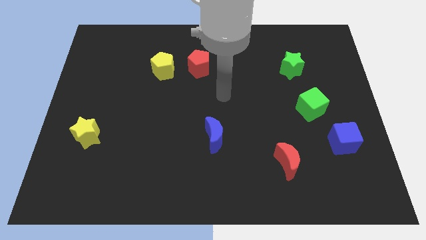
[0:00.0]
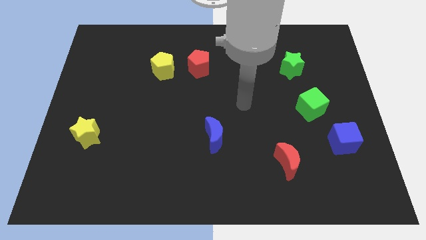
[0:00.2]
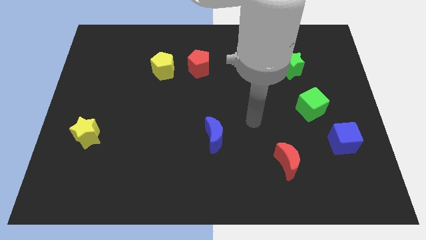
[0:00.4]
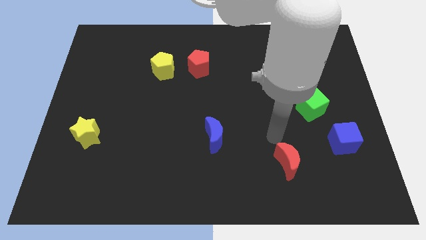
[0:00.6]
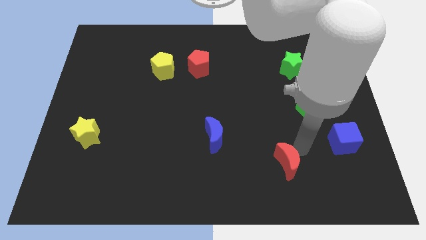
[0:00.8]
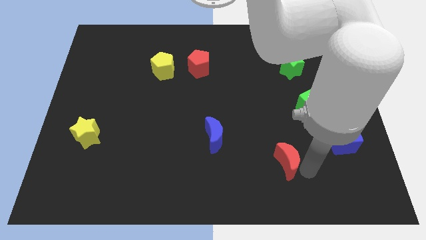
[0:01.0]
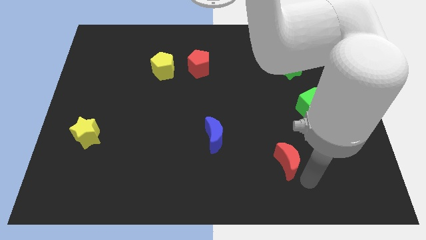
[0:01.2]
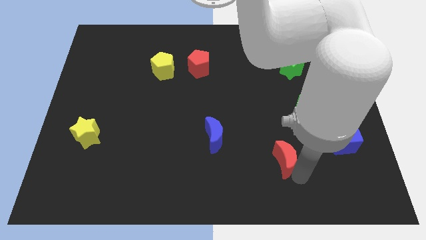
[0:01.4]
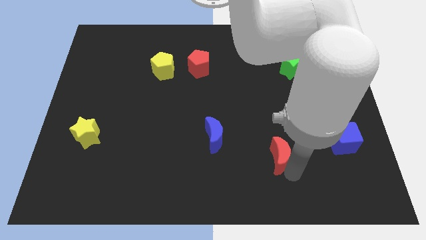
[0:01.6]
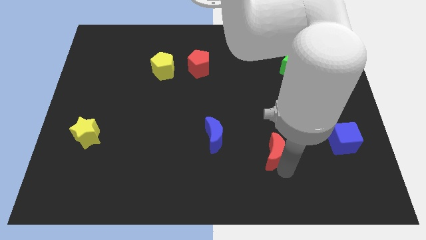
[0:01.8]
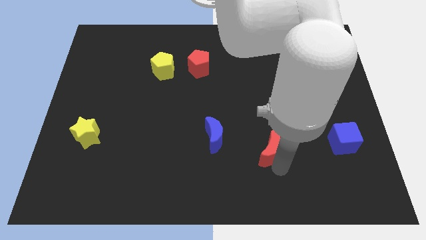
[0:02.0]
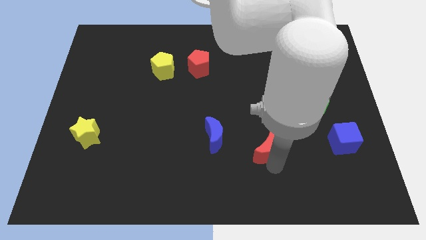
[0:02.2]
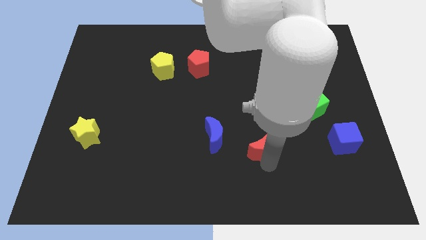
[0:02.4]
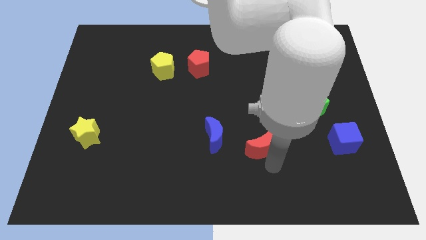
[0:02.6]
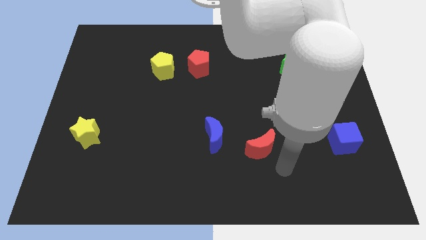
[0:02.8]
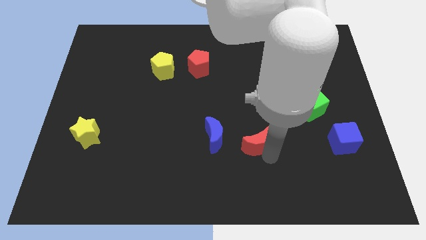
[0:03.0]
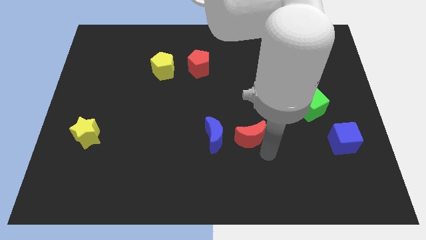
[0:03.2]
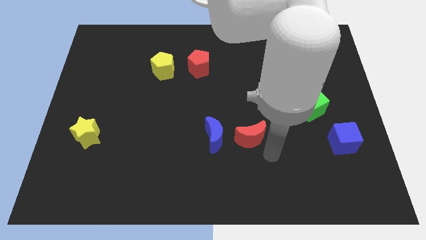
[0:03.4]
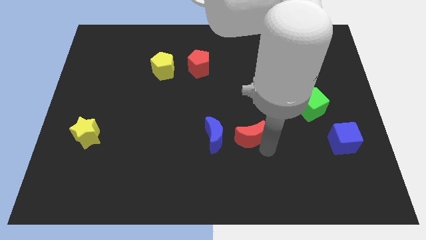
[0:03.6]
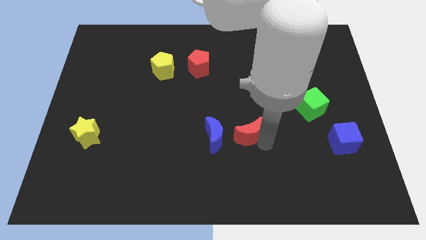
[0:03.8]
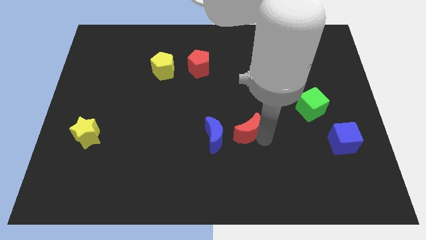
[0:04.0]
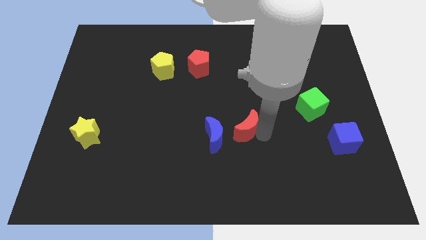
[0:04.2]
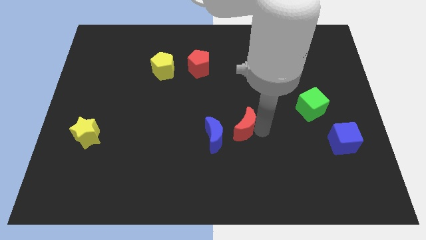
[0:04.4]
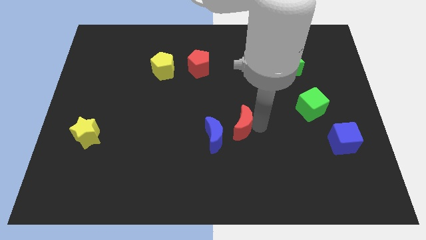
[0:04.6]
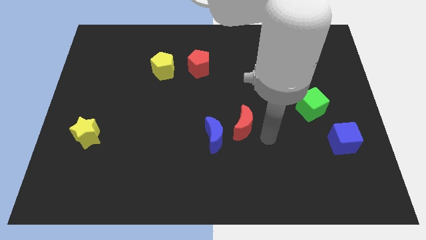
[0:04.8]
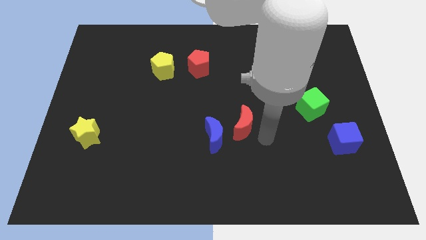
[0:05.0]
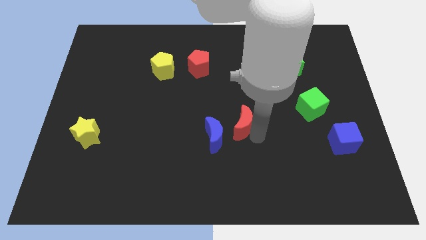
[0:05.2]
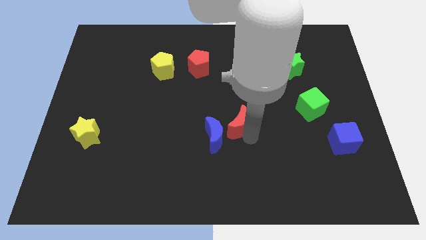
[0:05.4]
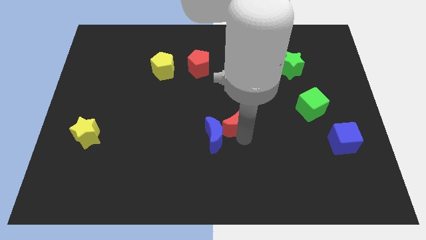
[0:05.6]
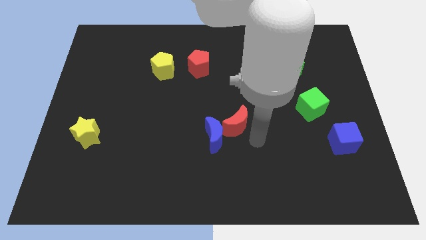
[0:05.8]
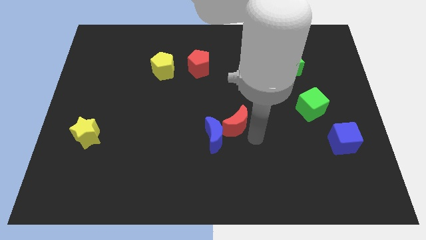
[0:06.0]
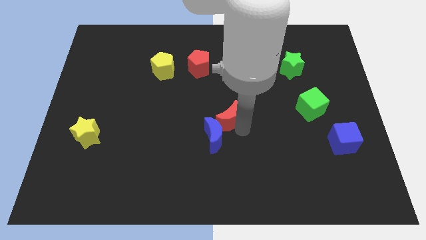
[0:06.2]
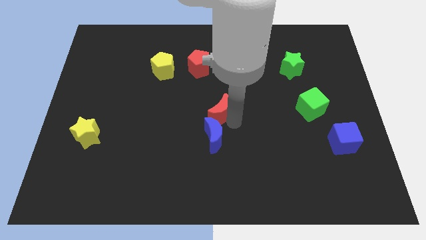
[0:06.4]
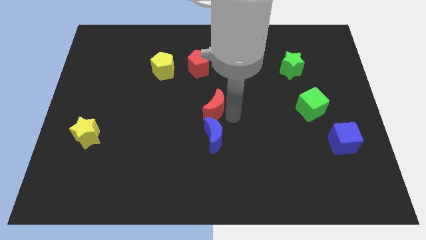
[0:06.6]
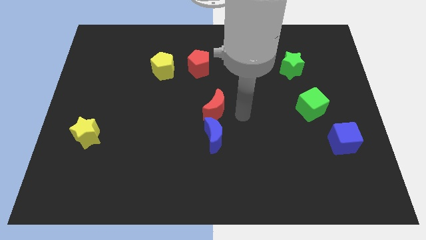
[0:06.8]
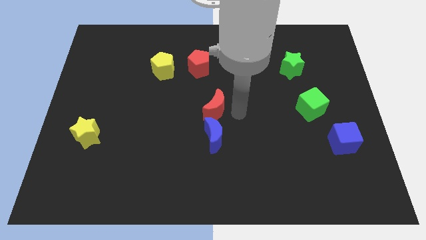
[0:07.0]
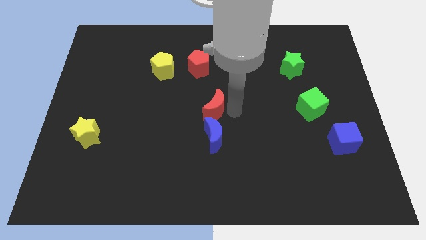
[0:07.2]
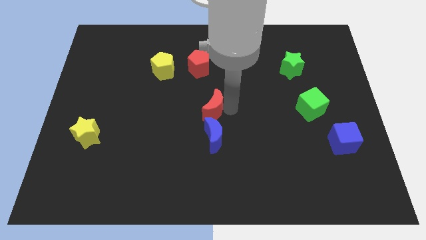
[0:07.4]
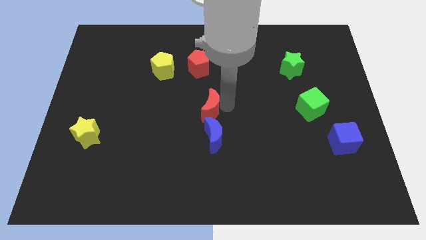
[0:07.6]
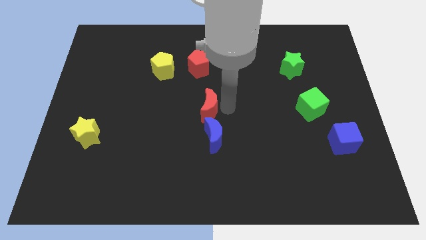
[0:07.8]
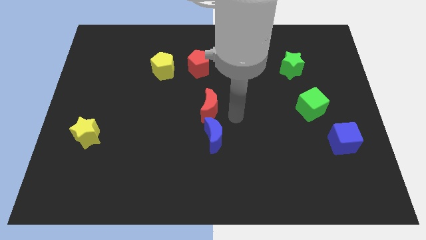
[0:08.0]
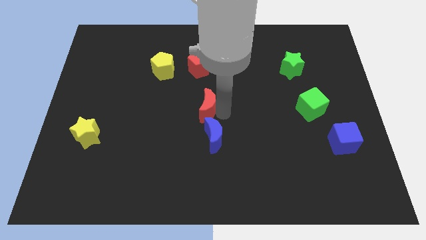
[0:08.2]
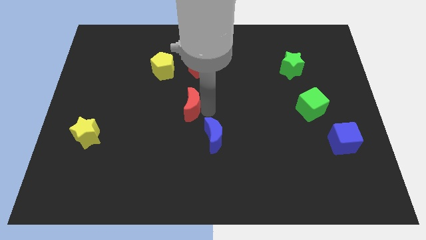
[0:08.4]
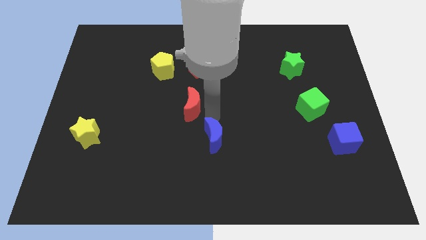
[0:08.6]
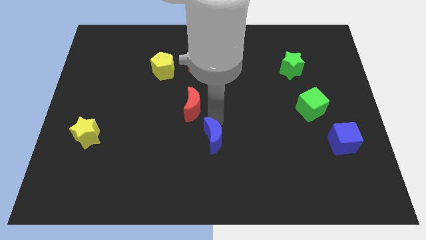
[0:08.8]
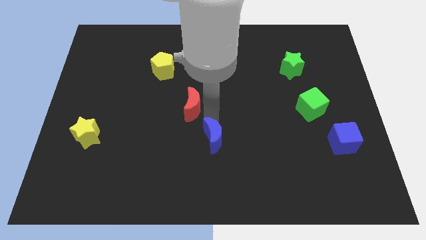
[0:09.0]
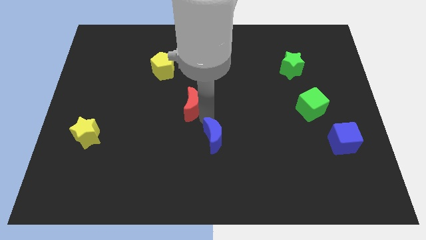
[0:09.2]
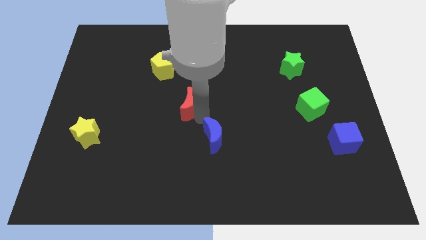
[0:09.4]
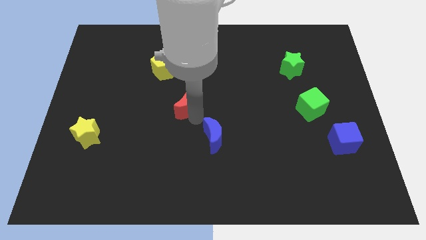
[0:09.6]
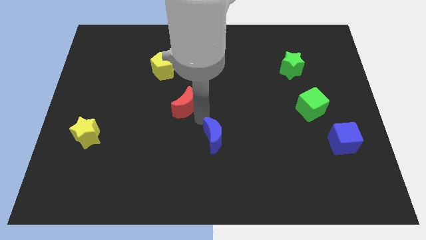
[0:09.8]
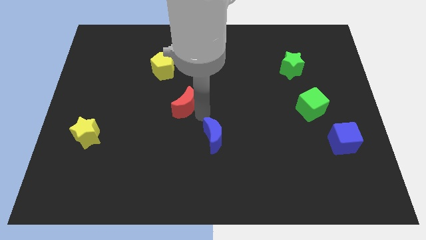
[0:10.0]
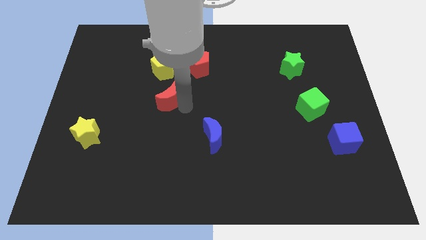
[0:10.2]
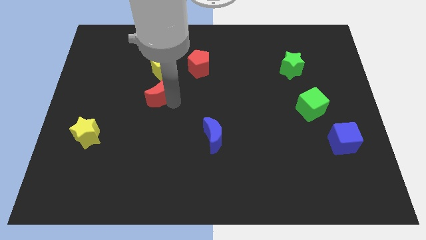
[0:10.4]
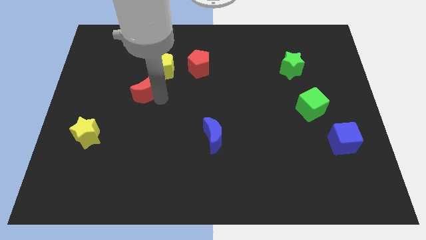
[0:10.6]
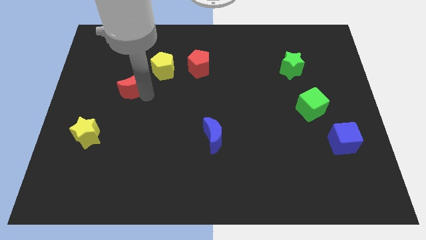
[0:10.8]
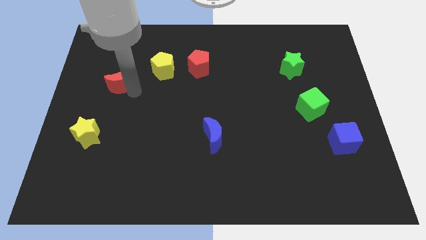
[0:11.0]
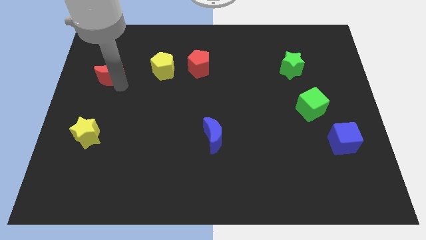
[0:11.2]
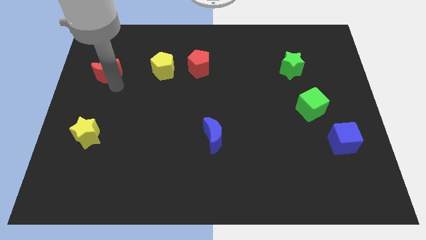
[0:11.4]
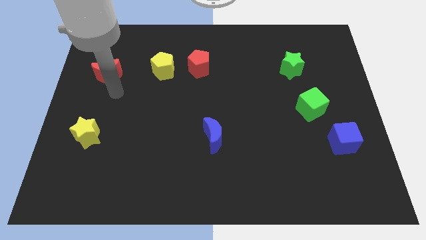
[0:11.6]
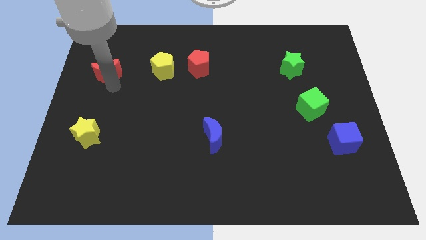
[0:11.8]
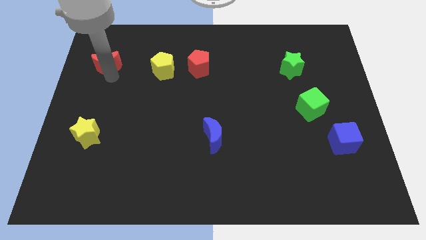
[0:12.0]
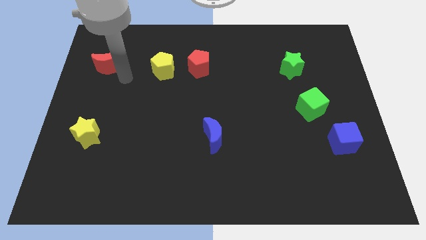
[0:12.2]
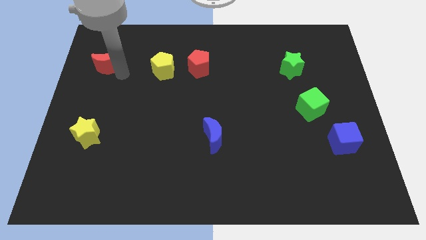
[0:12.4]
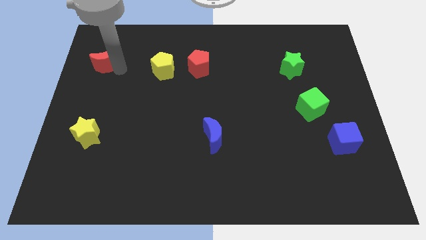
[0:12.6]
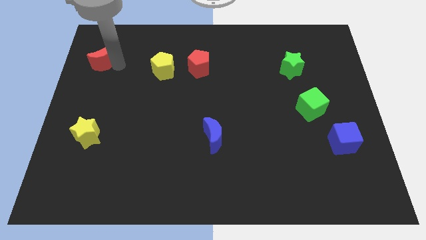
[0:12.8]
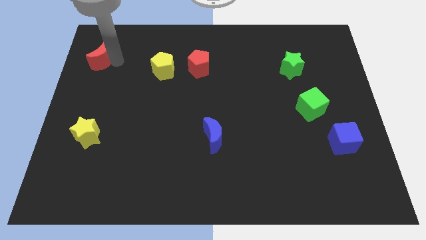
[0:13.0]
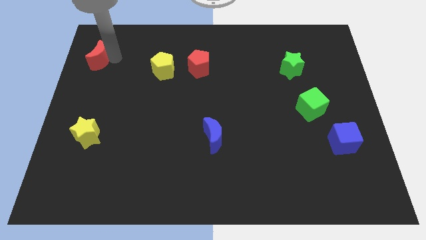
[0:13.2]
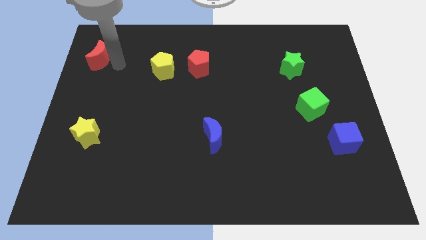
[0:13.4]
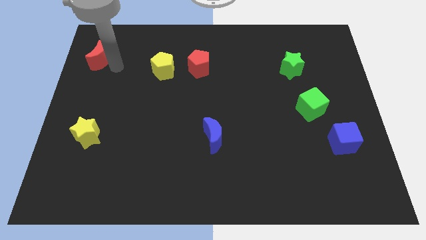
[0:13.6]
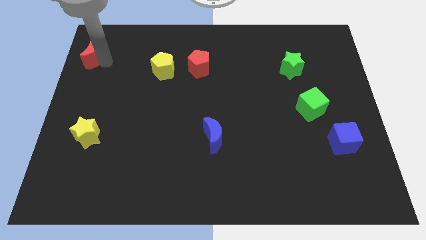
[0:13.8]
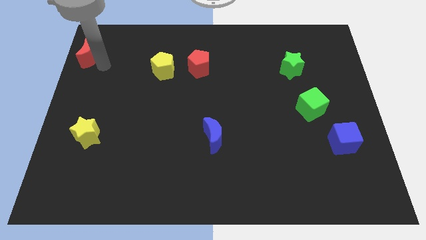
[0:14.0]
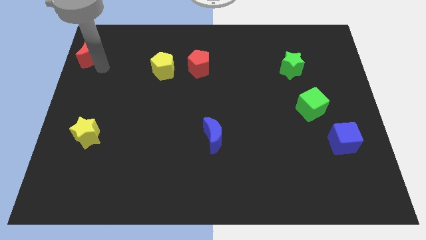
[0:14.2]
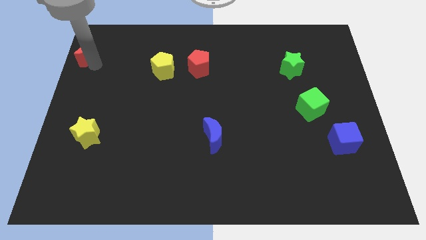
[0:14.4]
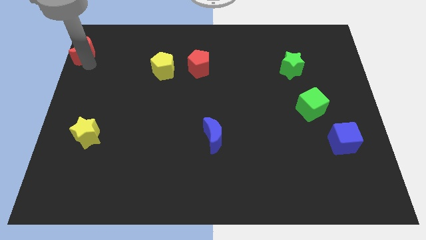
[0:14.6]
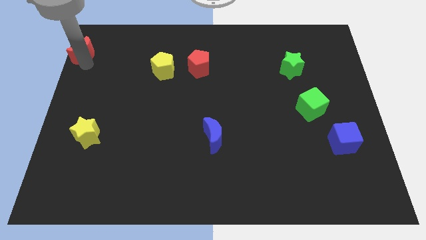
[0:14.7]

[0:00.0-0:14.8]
push the red moon to the upper left corner
